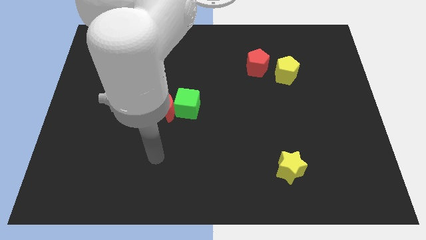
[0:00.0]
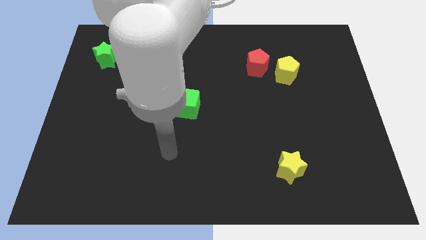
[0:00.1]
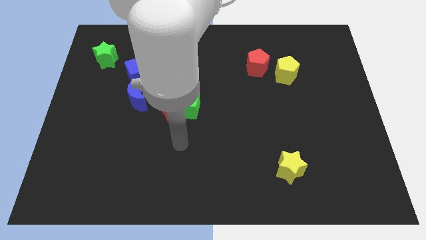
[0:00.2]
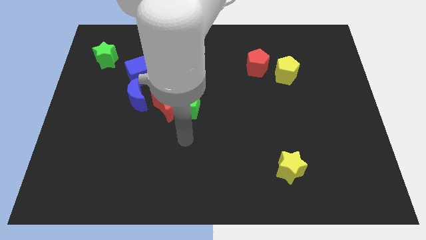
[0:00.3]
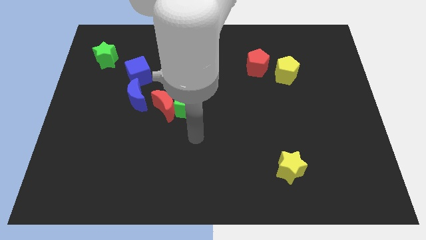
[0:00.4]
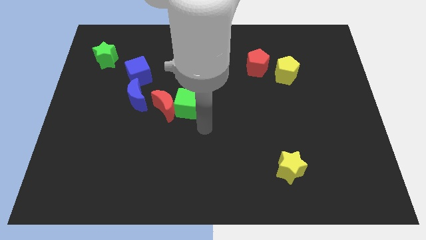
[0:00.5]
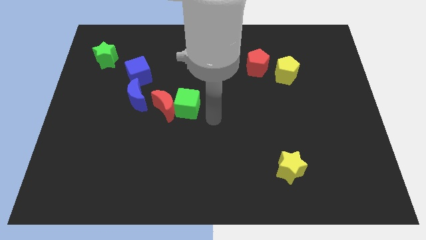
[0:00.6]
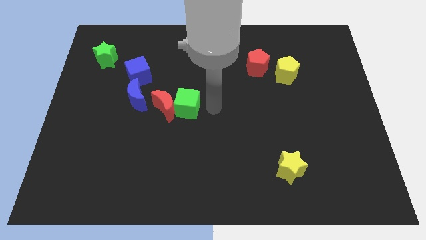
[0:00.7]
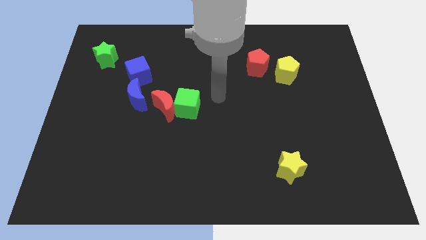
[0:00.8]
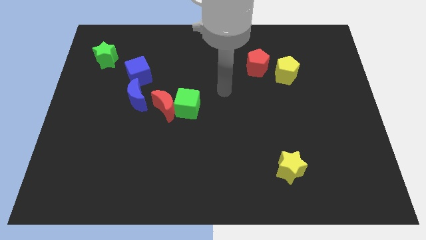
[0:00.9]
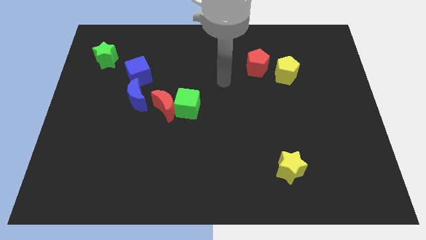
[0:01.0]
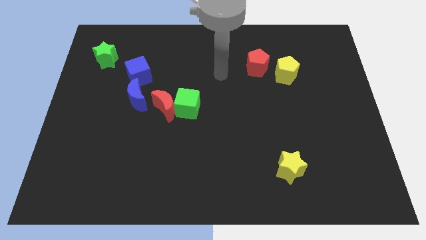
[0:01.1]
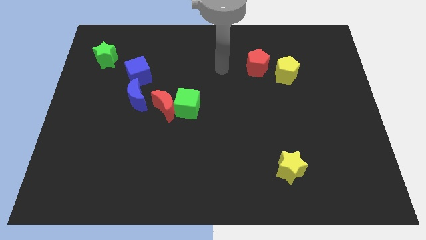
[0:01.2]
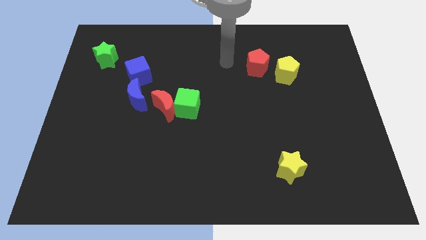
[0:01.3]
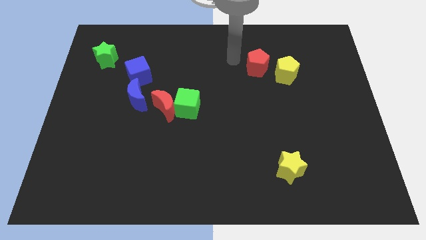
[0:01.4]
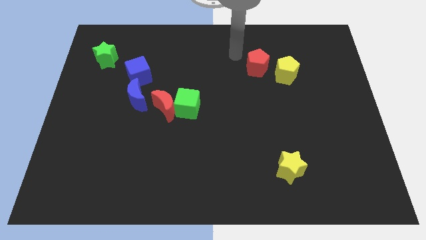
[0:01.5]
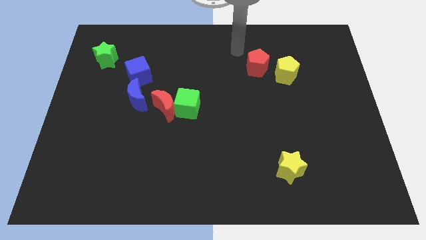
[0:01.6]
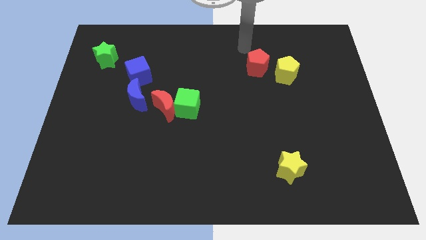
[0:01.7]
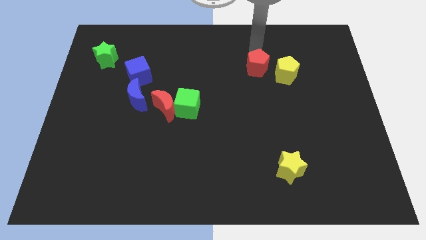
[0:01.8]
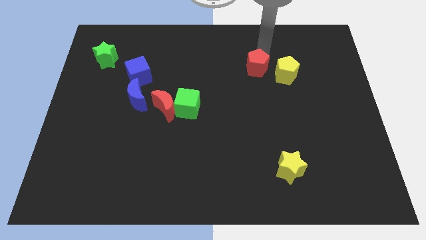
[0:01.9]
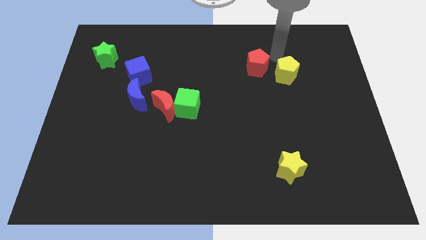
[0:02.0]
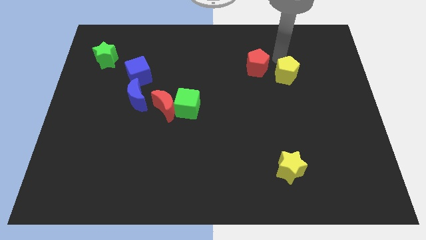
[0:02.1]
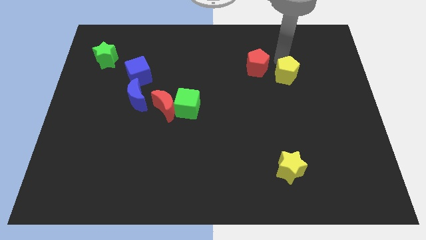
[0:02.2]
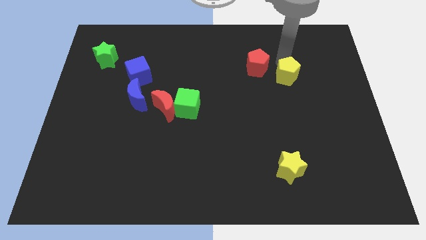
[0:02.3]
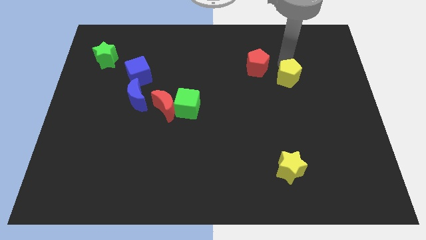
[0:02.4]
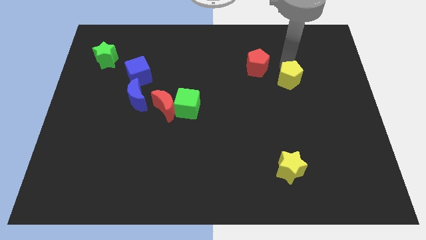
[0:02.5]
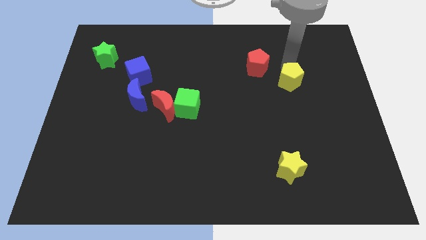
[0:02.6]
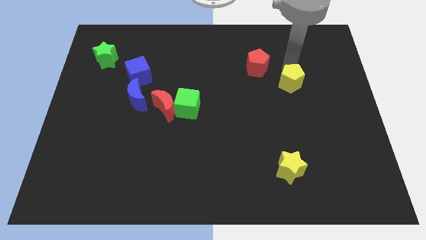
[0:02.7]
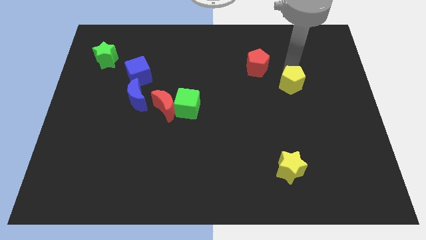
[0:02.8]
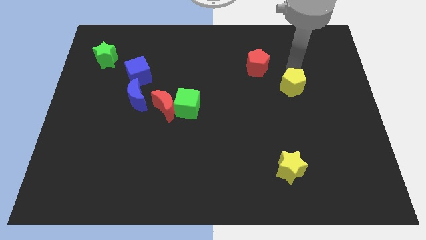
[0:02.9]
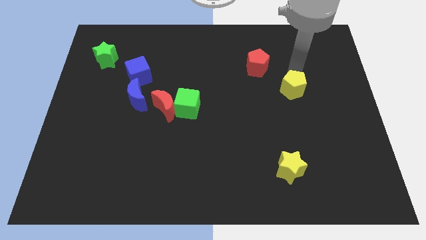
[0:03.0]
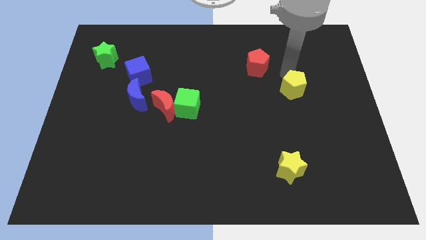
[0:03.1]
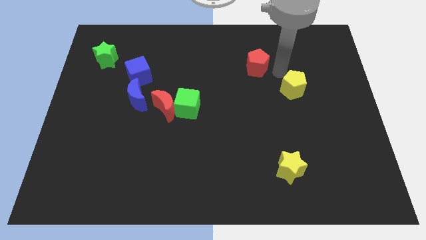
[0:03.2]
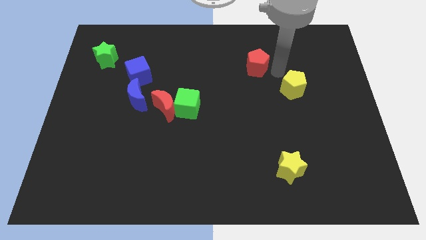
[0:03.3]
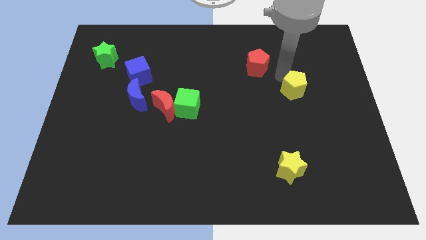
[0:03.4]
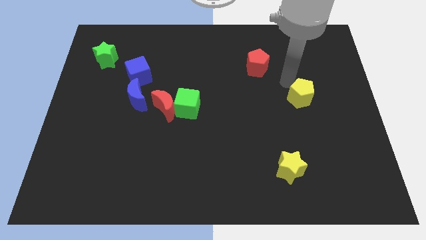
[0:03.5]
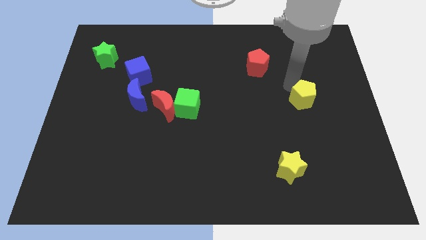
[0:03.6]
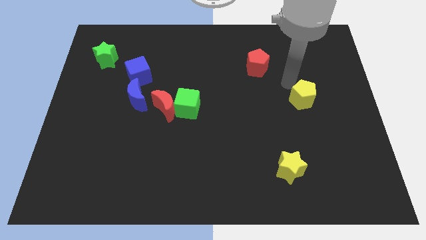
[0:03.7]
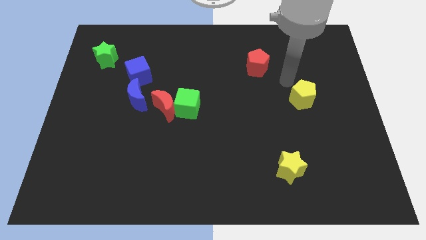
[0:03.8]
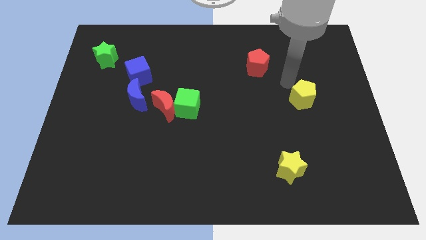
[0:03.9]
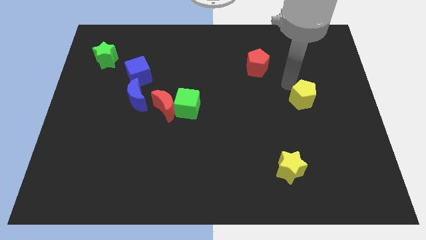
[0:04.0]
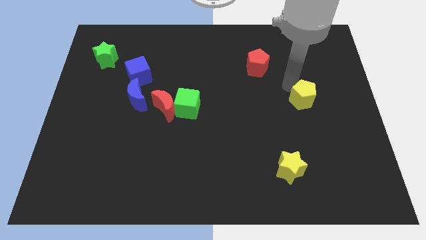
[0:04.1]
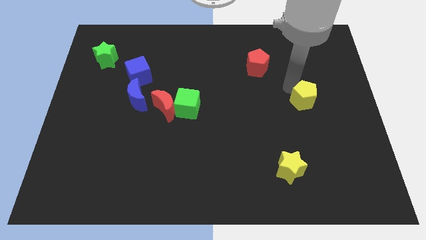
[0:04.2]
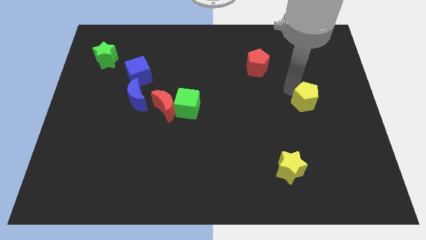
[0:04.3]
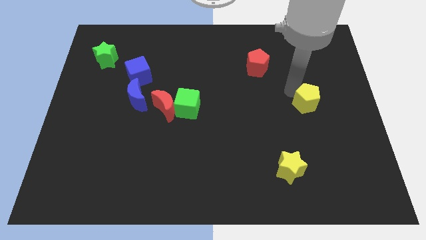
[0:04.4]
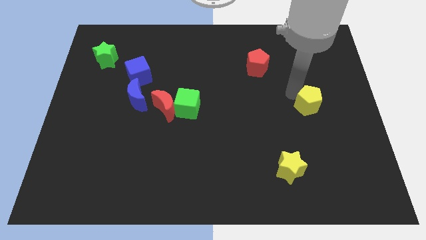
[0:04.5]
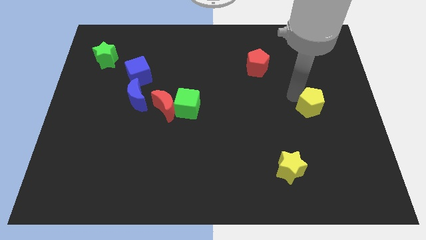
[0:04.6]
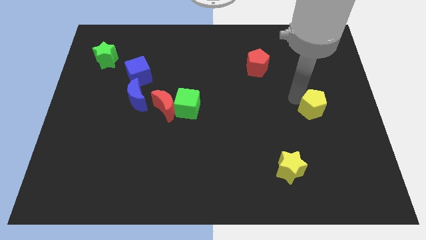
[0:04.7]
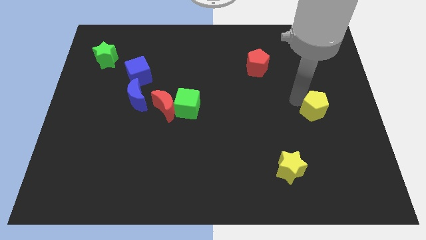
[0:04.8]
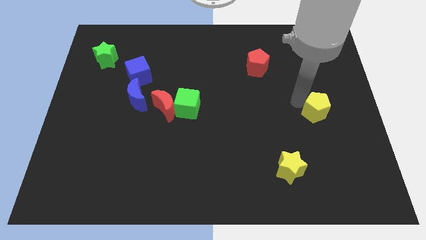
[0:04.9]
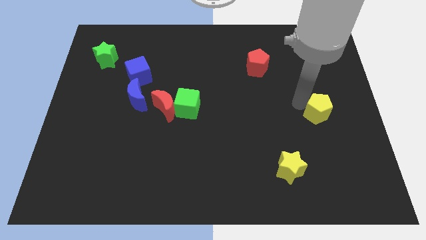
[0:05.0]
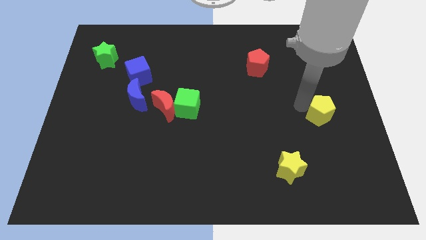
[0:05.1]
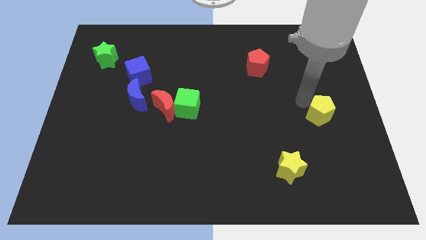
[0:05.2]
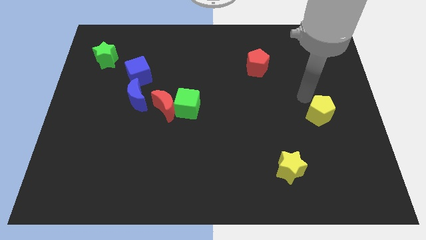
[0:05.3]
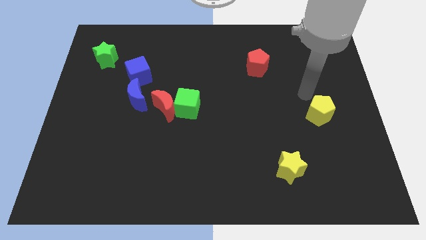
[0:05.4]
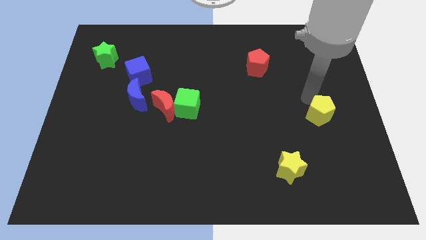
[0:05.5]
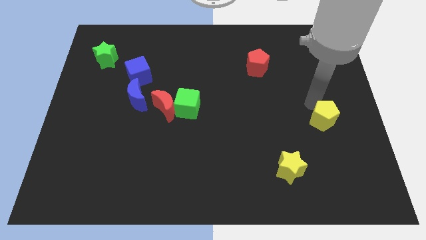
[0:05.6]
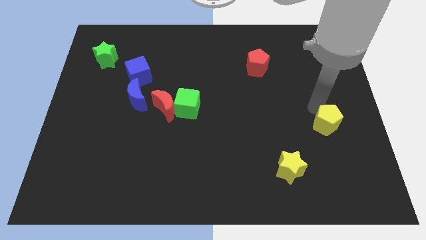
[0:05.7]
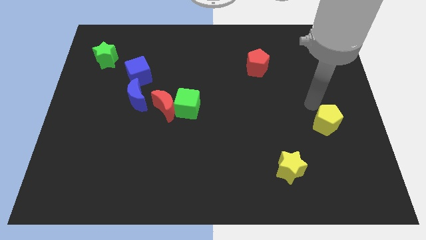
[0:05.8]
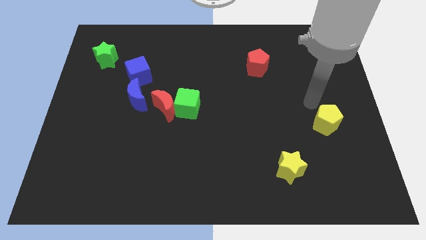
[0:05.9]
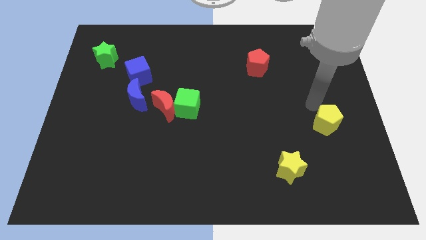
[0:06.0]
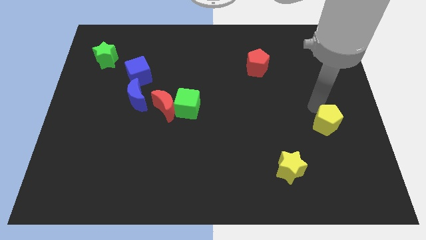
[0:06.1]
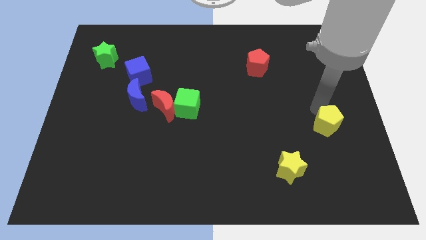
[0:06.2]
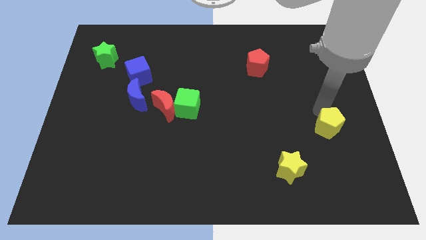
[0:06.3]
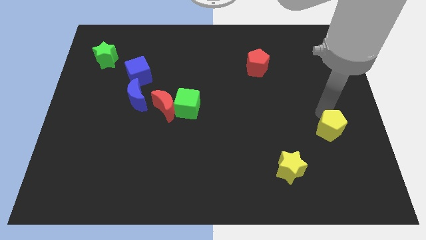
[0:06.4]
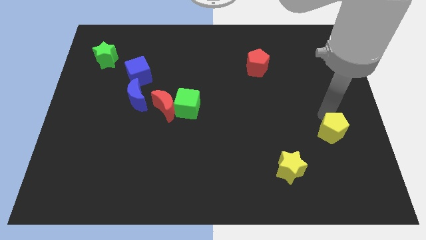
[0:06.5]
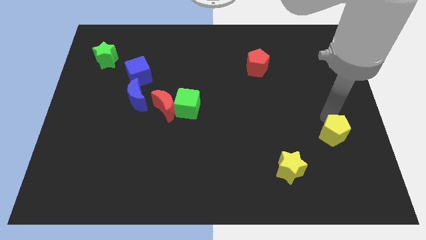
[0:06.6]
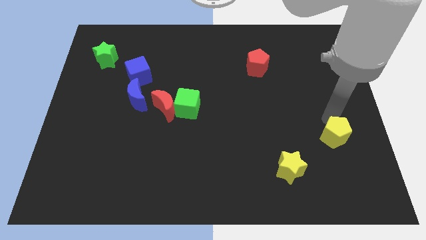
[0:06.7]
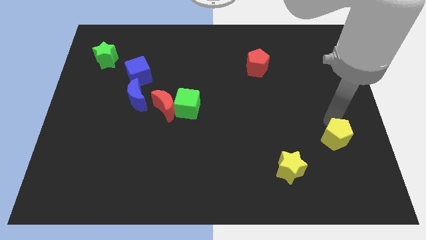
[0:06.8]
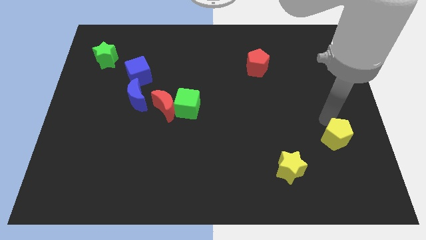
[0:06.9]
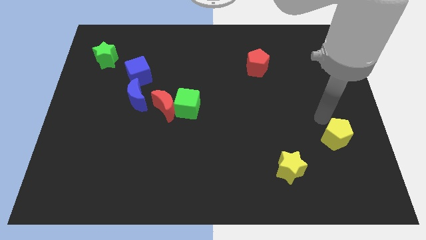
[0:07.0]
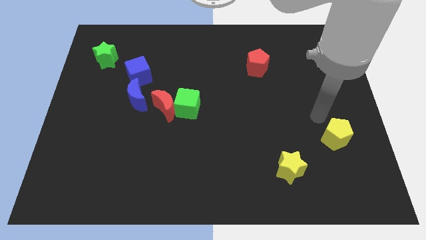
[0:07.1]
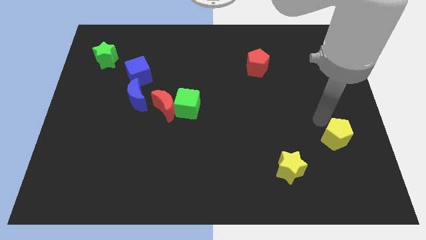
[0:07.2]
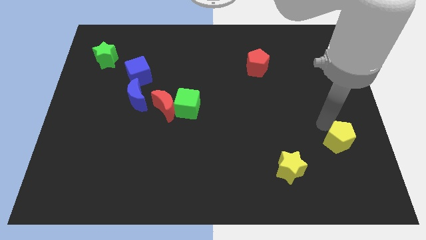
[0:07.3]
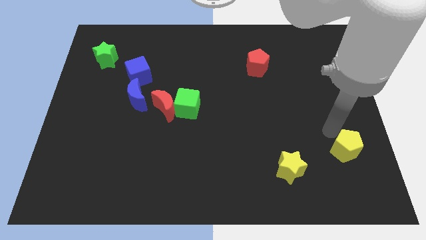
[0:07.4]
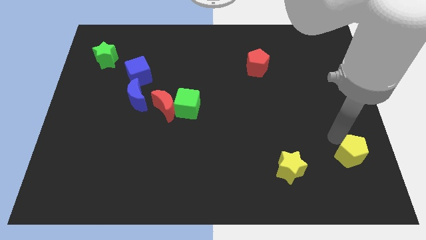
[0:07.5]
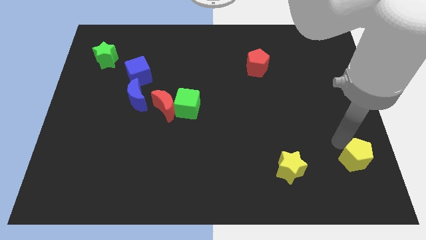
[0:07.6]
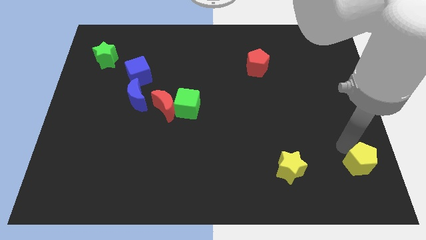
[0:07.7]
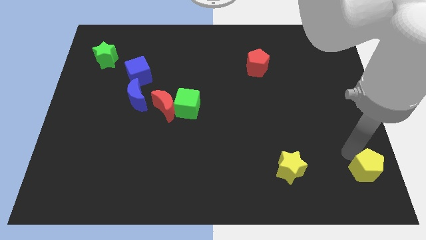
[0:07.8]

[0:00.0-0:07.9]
put the yellow pentagon to the bottom right of the board
